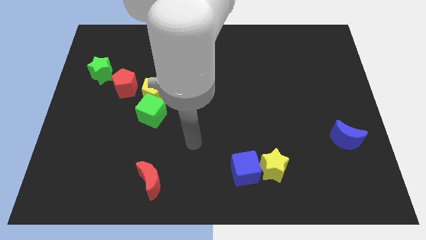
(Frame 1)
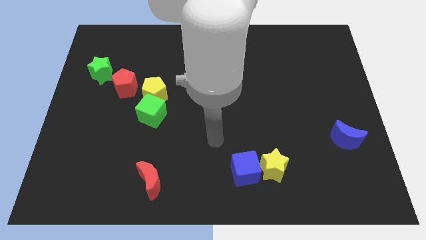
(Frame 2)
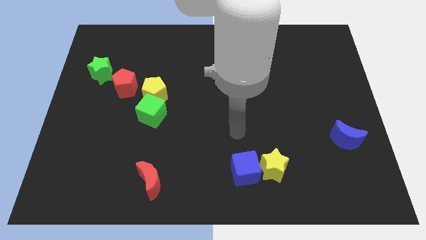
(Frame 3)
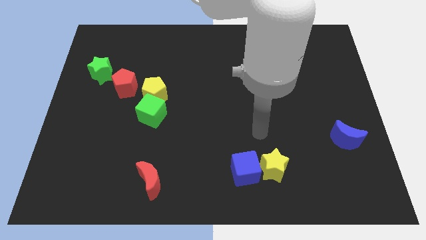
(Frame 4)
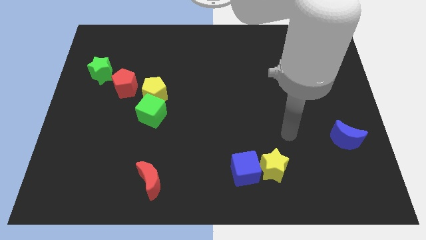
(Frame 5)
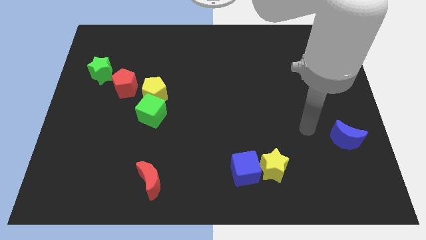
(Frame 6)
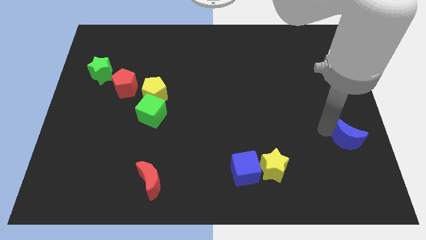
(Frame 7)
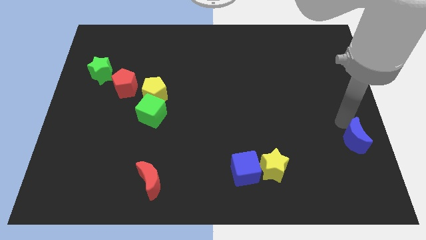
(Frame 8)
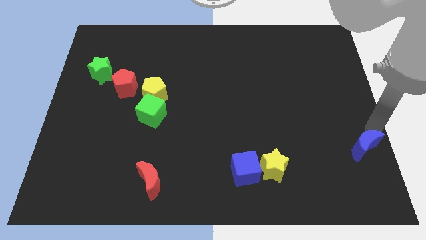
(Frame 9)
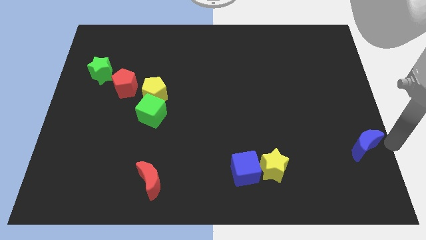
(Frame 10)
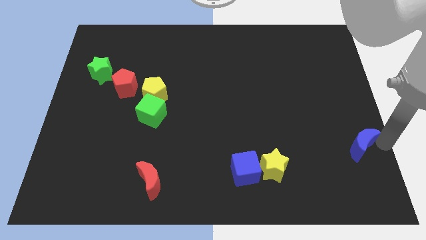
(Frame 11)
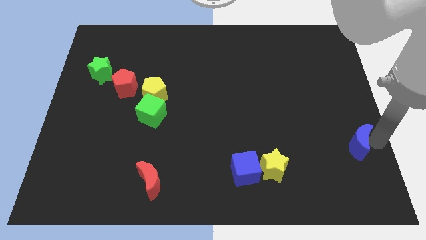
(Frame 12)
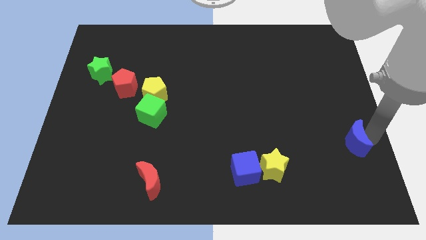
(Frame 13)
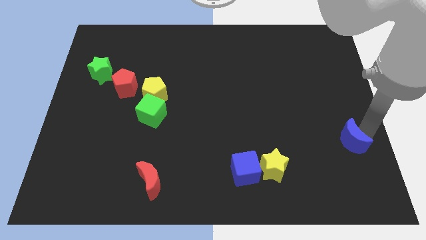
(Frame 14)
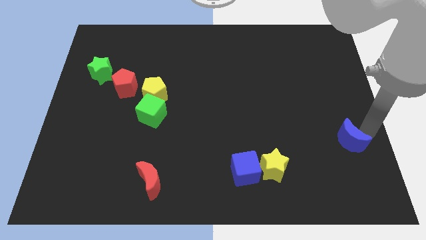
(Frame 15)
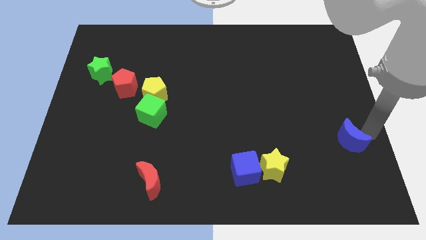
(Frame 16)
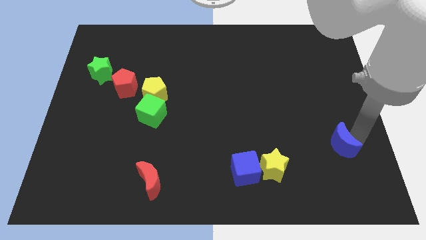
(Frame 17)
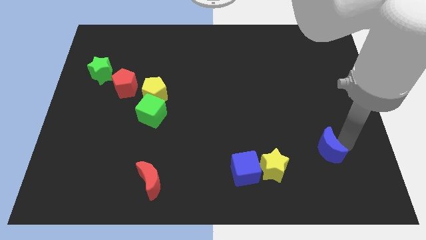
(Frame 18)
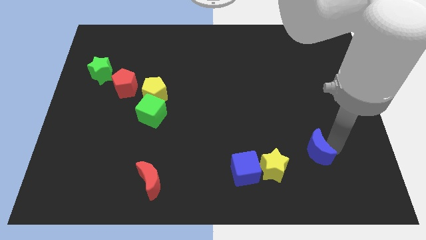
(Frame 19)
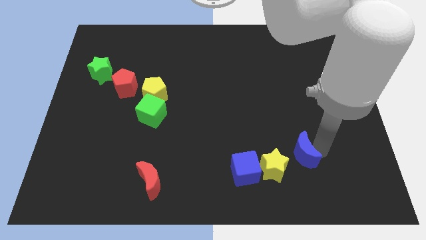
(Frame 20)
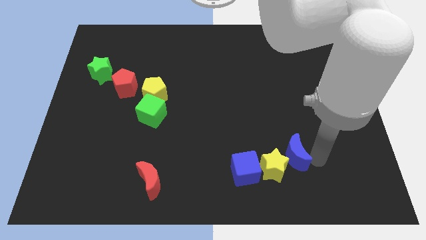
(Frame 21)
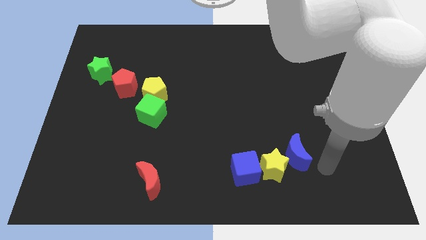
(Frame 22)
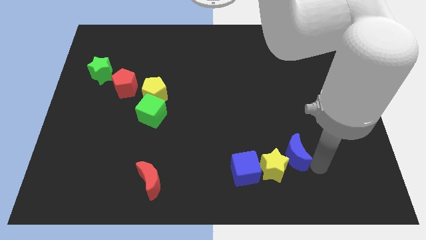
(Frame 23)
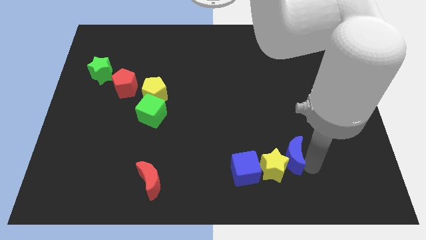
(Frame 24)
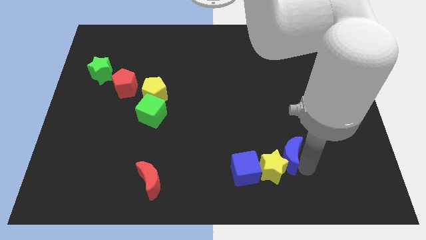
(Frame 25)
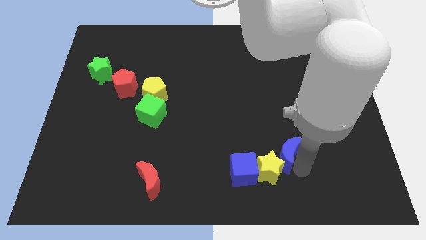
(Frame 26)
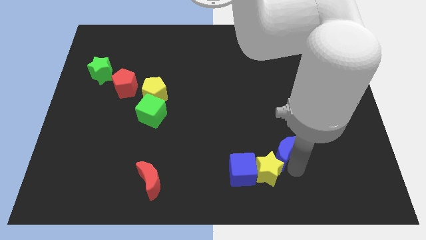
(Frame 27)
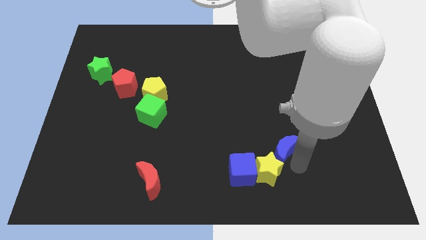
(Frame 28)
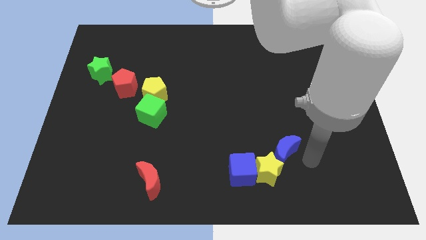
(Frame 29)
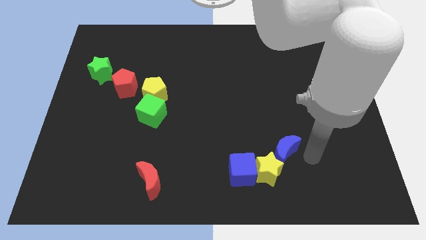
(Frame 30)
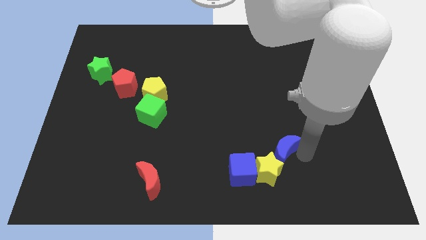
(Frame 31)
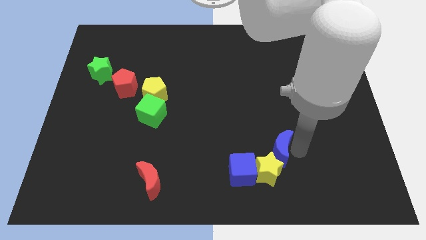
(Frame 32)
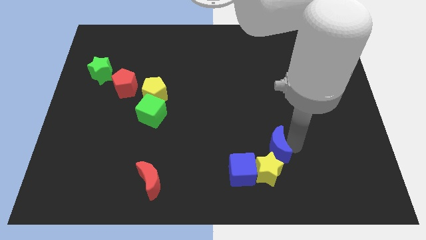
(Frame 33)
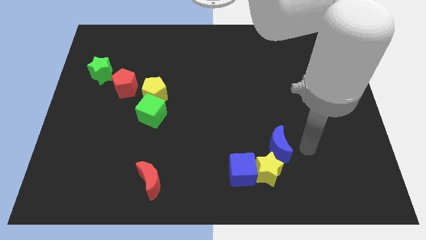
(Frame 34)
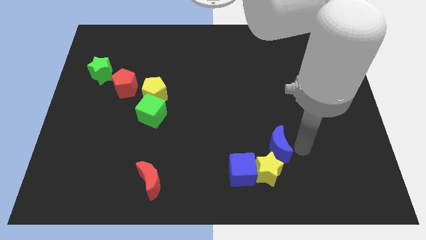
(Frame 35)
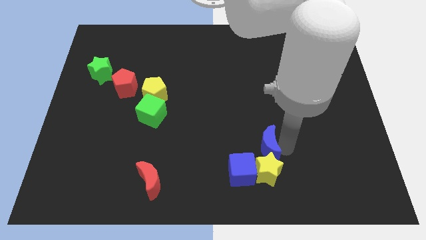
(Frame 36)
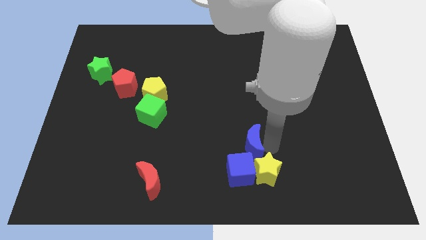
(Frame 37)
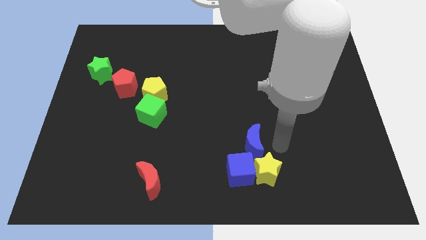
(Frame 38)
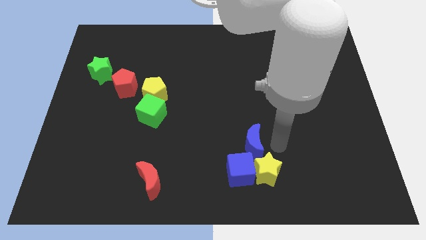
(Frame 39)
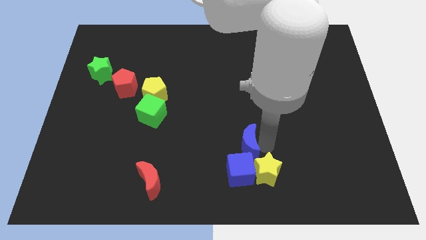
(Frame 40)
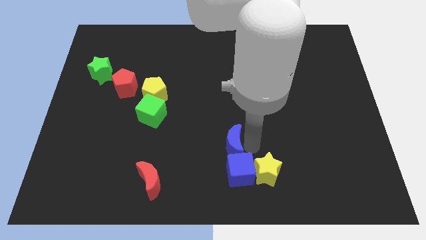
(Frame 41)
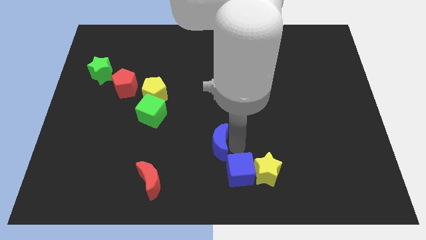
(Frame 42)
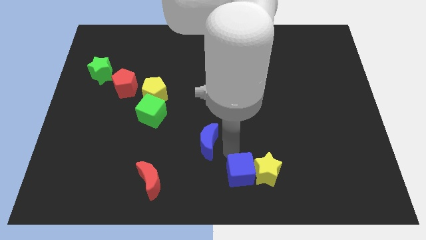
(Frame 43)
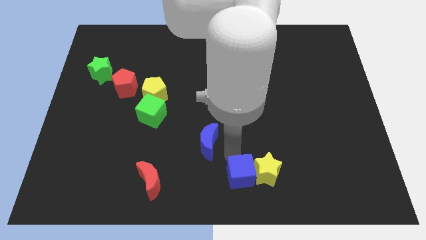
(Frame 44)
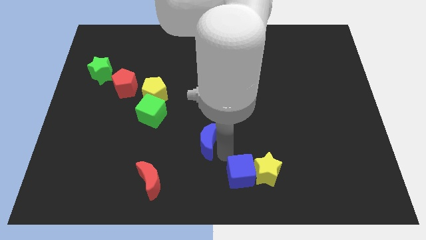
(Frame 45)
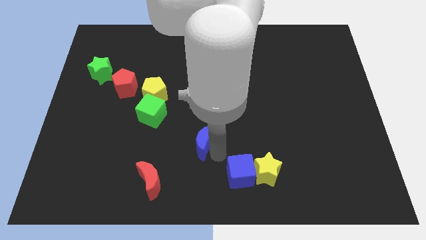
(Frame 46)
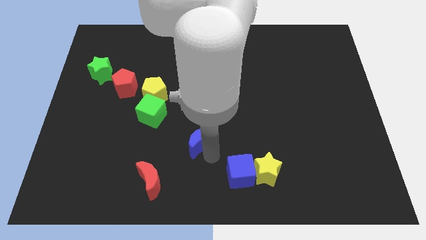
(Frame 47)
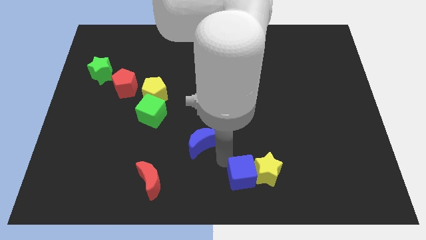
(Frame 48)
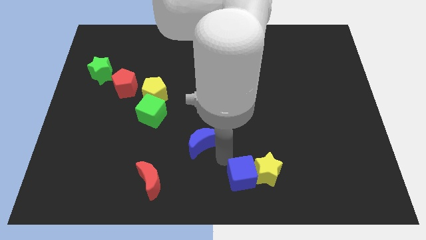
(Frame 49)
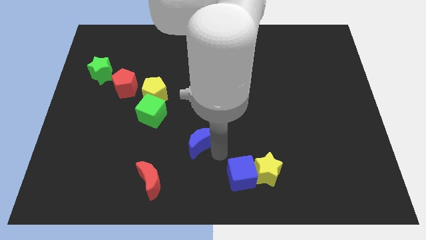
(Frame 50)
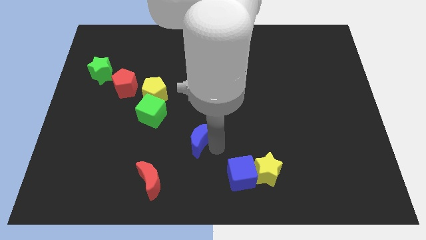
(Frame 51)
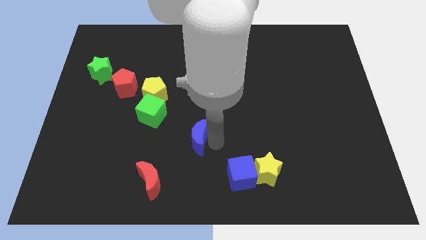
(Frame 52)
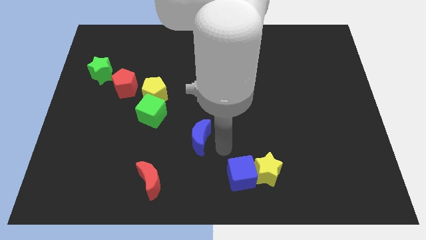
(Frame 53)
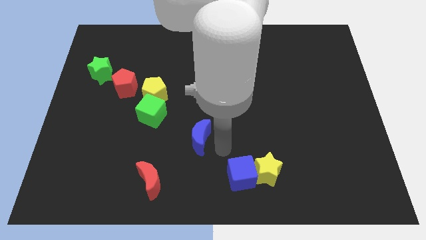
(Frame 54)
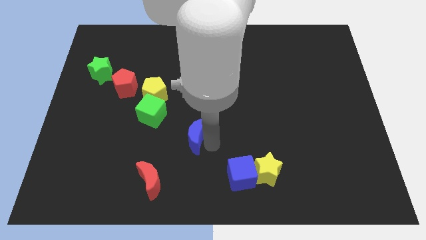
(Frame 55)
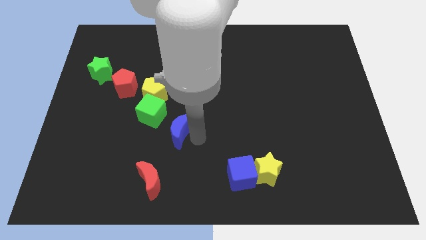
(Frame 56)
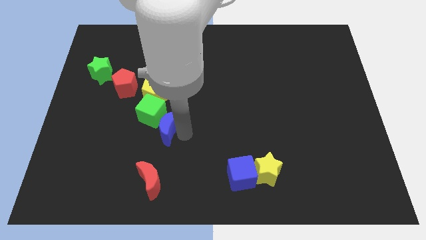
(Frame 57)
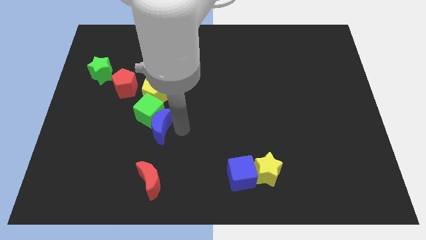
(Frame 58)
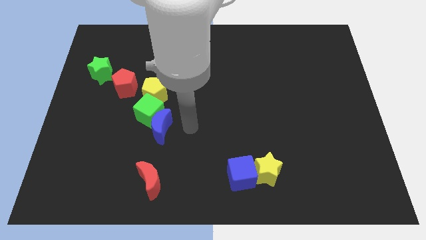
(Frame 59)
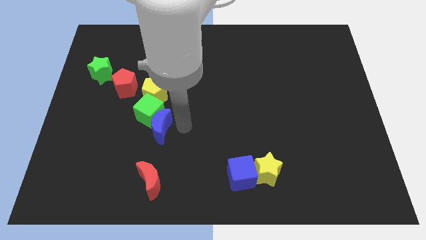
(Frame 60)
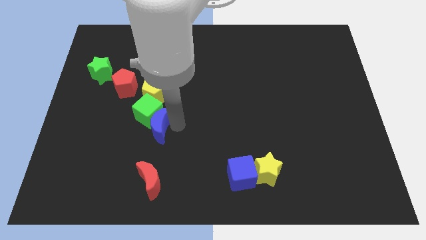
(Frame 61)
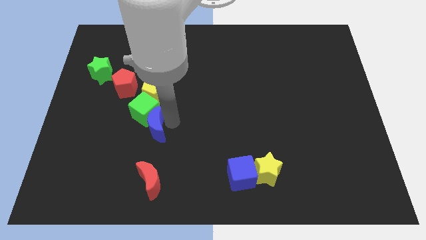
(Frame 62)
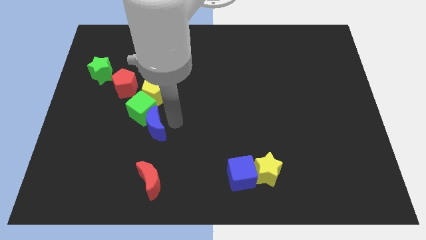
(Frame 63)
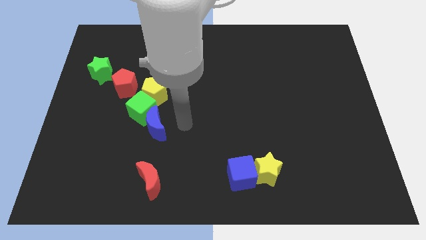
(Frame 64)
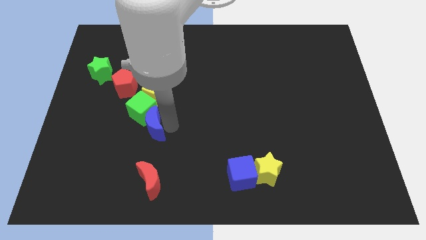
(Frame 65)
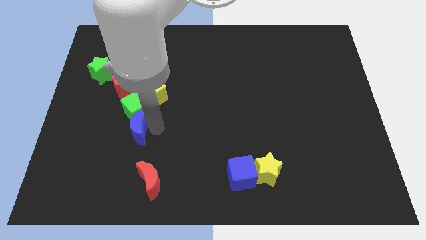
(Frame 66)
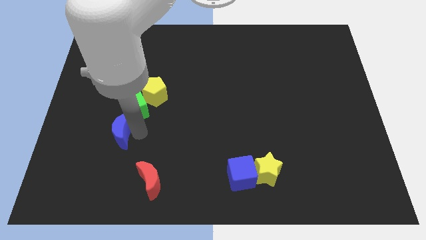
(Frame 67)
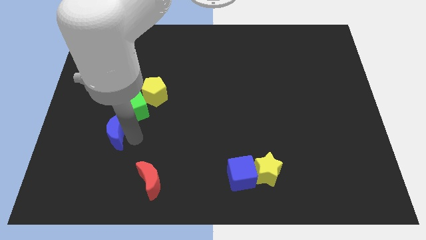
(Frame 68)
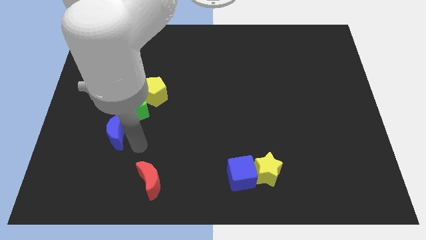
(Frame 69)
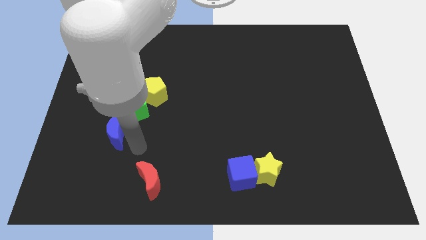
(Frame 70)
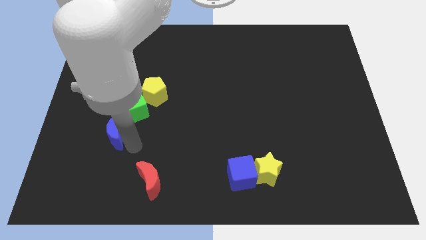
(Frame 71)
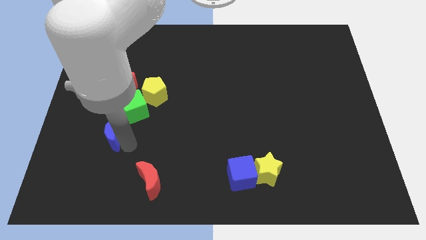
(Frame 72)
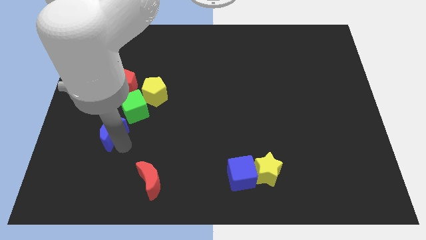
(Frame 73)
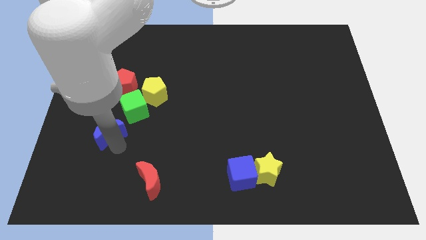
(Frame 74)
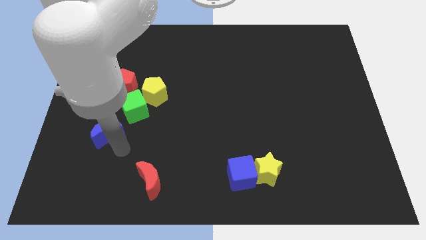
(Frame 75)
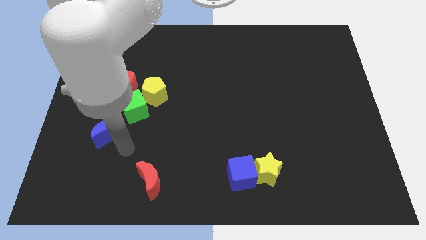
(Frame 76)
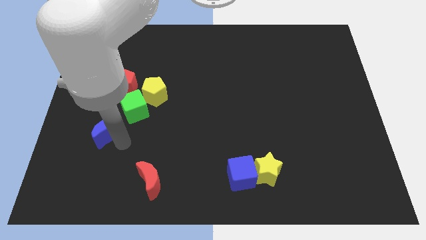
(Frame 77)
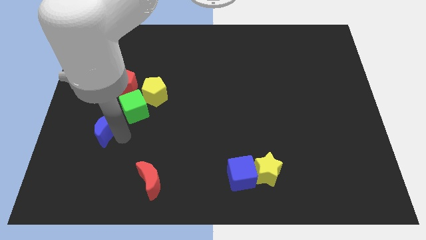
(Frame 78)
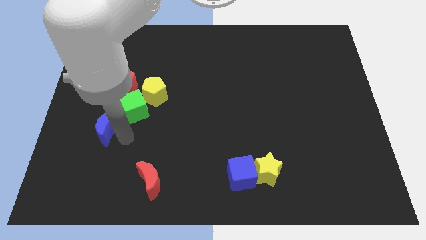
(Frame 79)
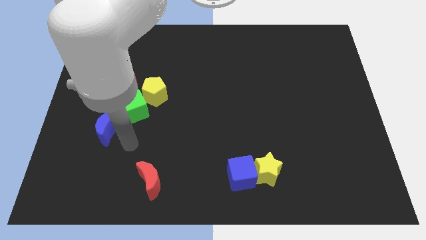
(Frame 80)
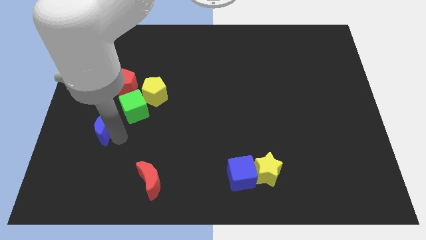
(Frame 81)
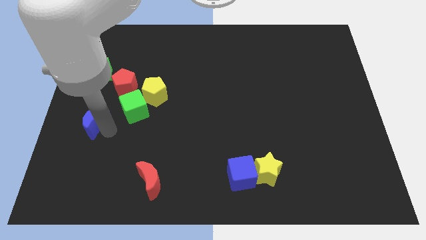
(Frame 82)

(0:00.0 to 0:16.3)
push the blue moon to the center left
